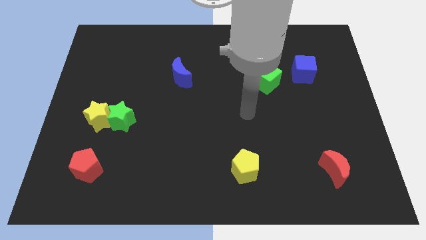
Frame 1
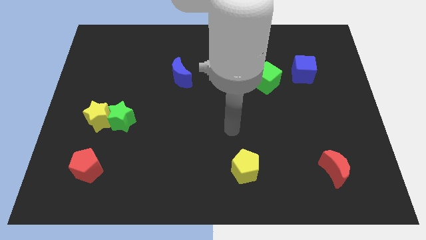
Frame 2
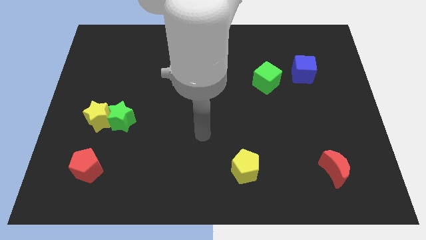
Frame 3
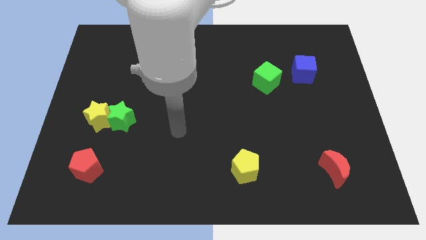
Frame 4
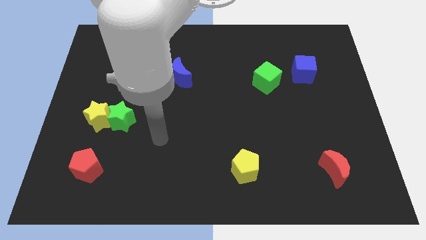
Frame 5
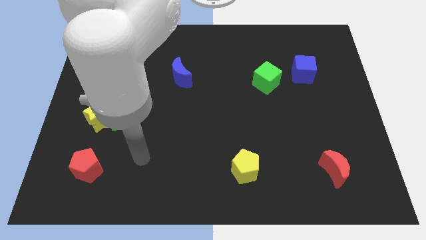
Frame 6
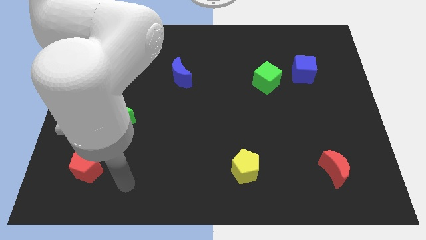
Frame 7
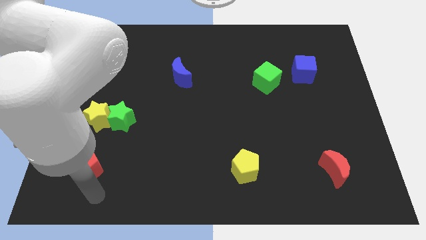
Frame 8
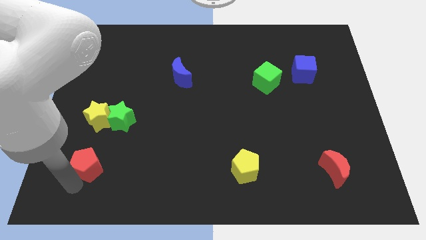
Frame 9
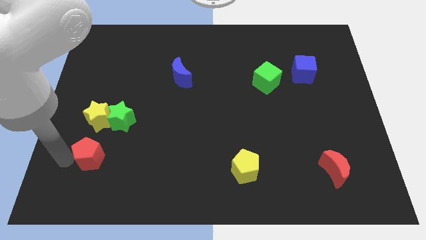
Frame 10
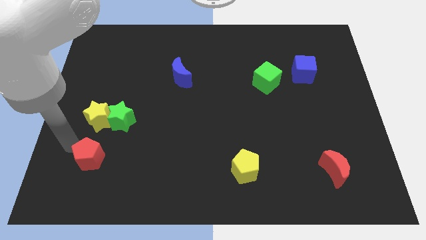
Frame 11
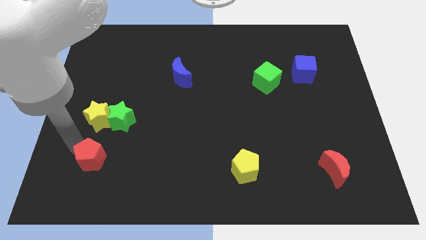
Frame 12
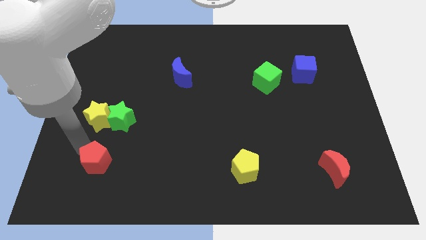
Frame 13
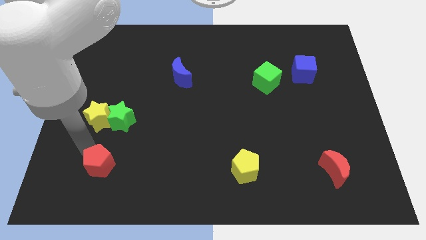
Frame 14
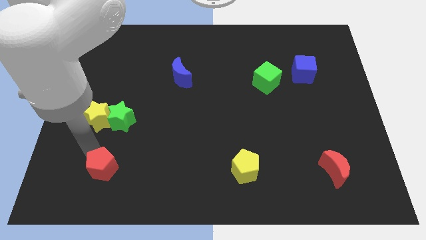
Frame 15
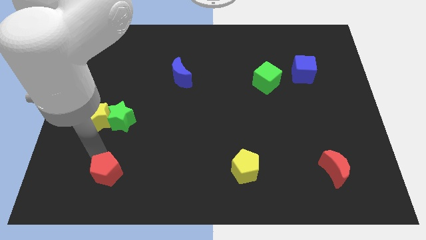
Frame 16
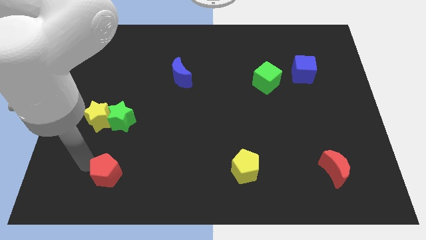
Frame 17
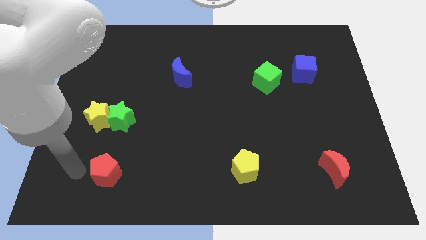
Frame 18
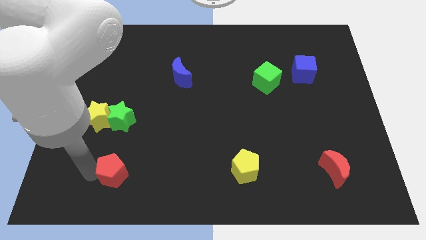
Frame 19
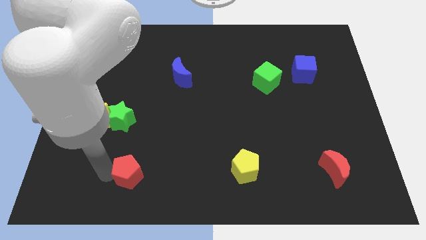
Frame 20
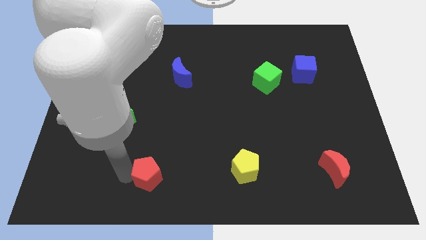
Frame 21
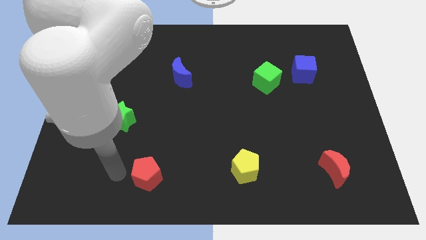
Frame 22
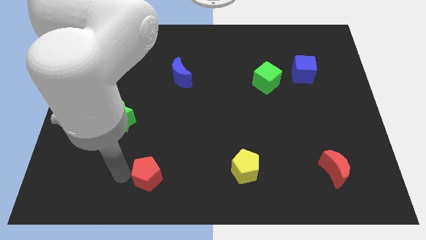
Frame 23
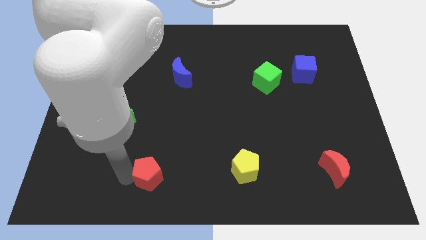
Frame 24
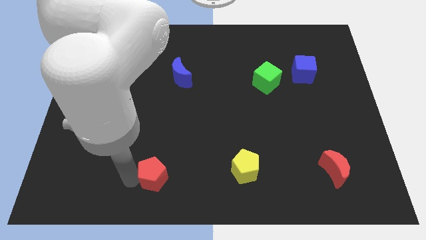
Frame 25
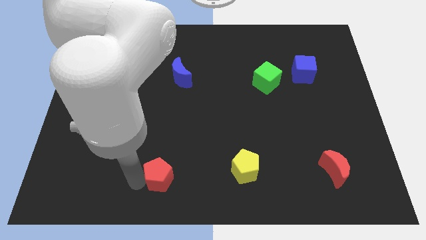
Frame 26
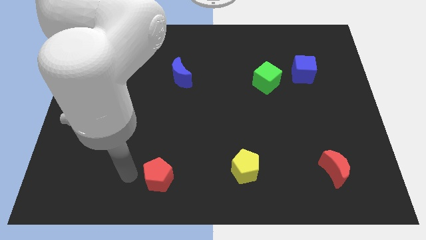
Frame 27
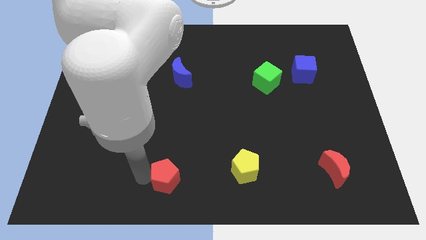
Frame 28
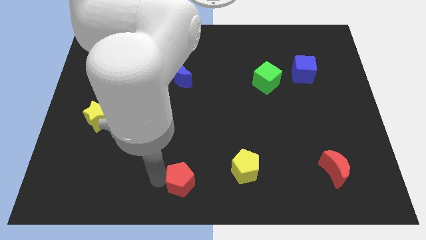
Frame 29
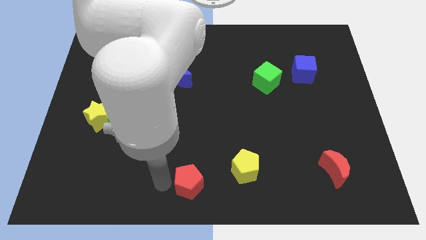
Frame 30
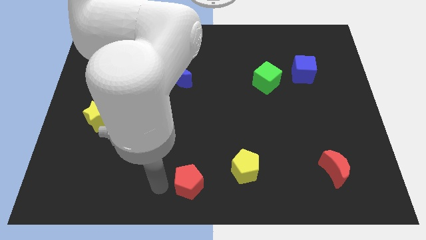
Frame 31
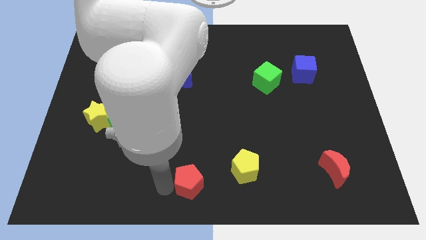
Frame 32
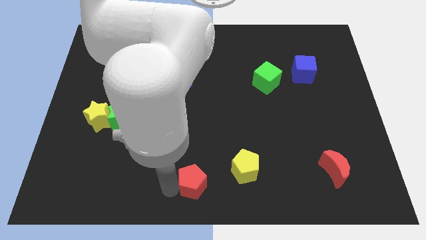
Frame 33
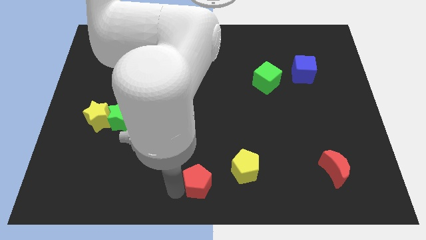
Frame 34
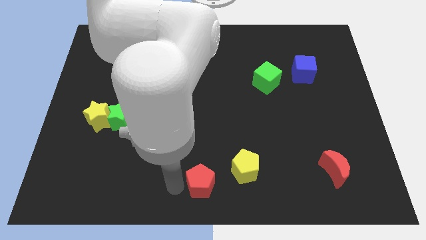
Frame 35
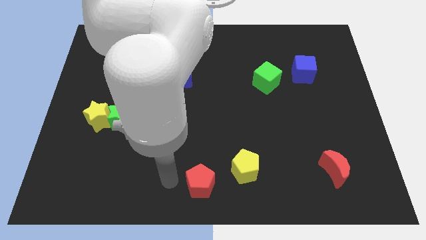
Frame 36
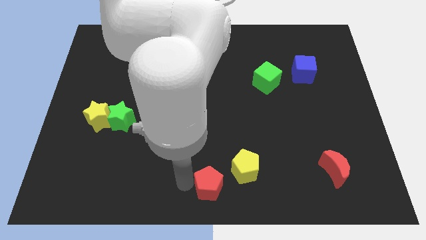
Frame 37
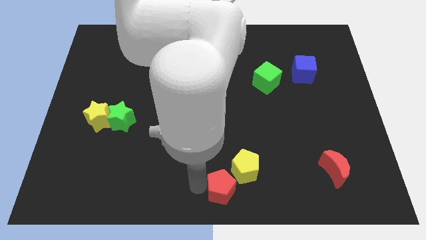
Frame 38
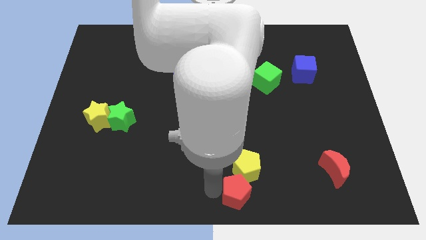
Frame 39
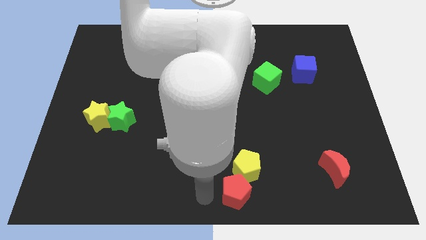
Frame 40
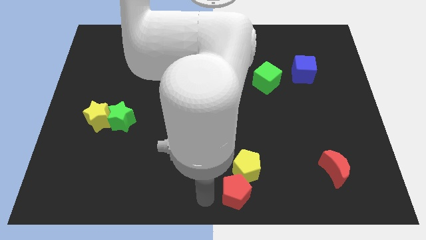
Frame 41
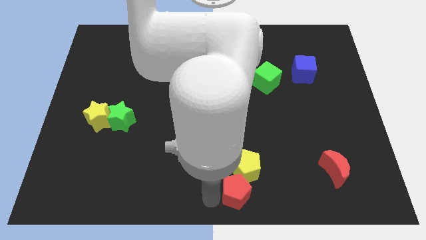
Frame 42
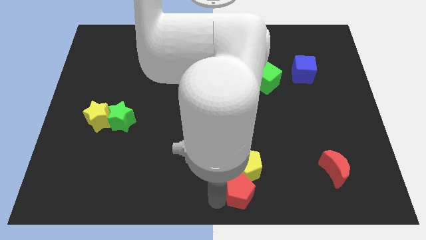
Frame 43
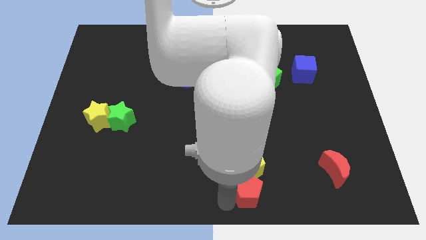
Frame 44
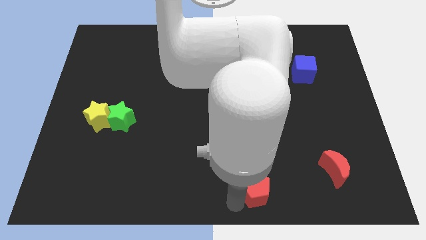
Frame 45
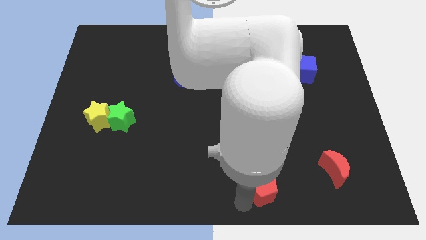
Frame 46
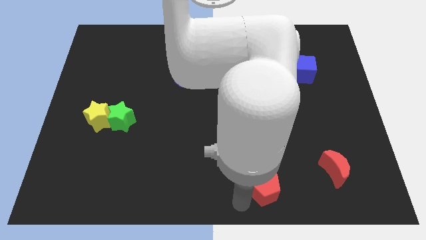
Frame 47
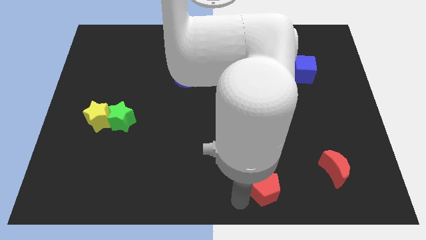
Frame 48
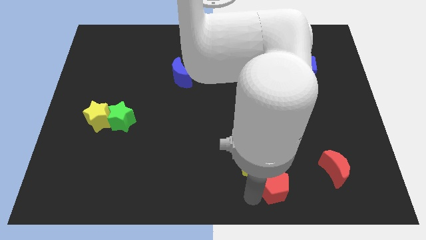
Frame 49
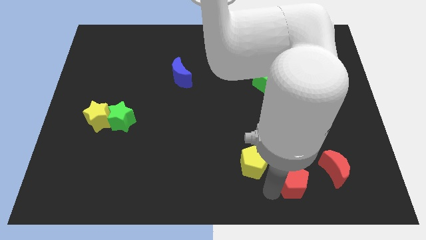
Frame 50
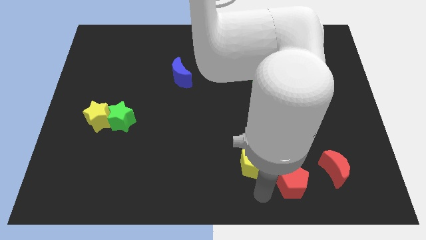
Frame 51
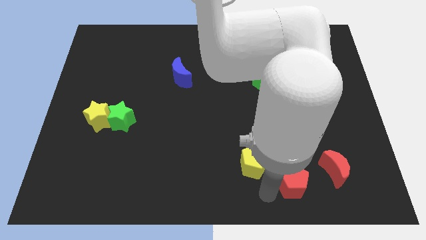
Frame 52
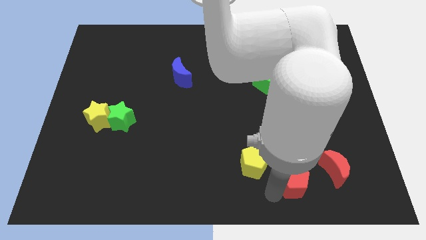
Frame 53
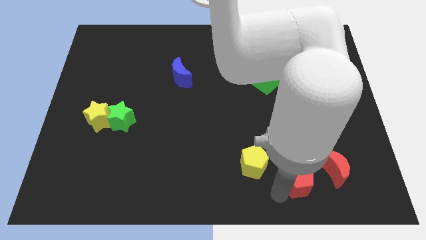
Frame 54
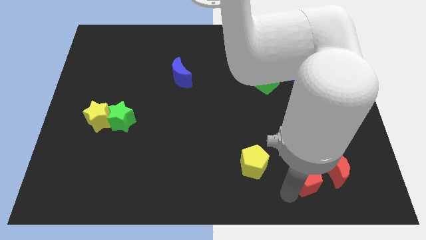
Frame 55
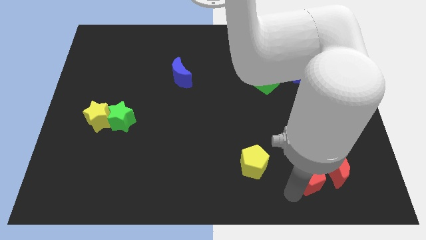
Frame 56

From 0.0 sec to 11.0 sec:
move the red pentagon towards the red moon

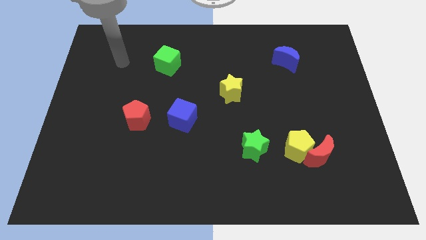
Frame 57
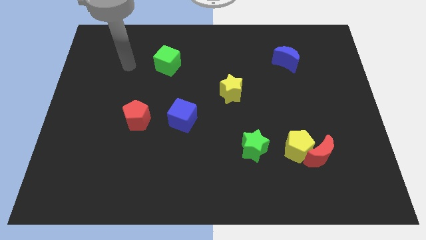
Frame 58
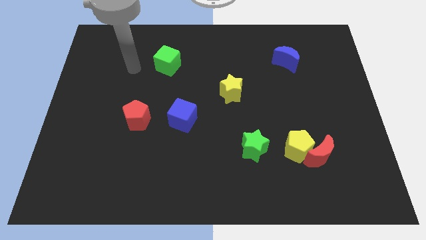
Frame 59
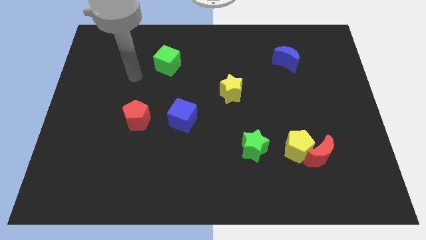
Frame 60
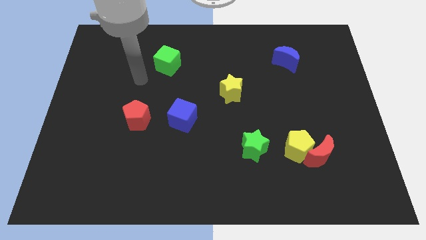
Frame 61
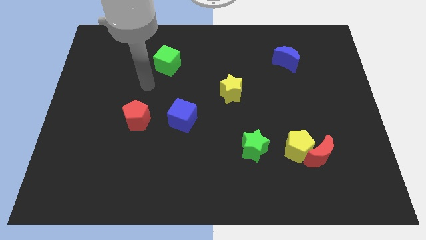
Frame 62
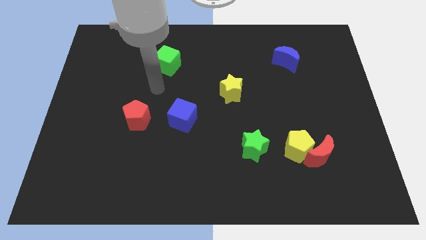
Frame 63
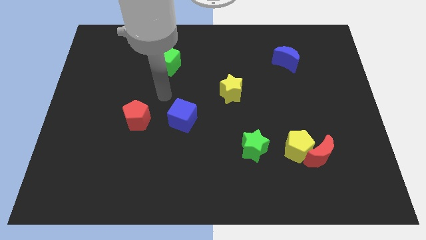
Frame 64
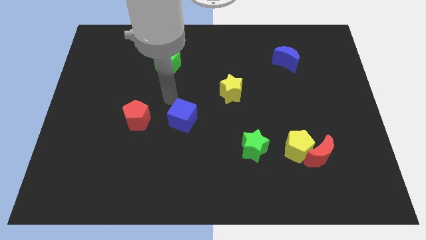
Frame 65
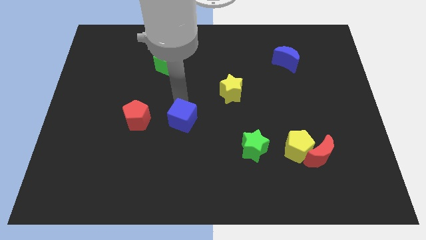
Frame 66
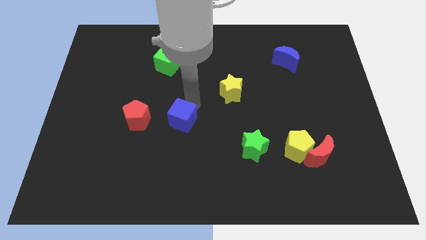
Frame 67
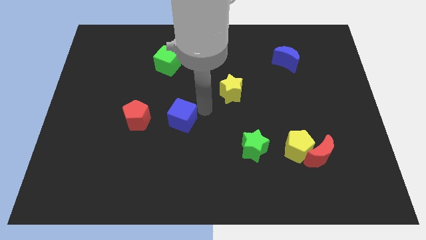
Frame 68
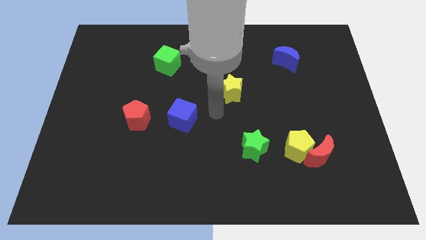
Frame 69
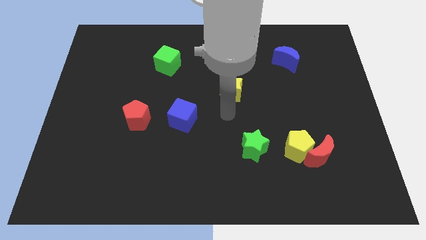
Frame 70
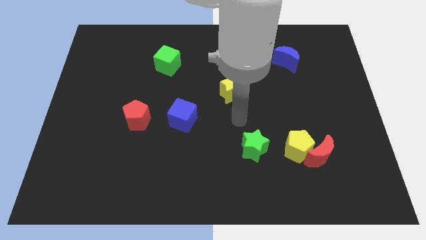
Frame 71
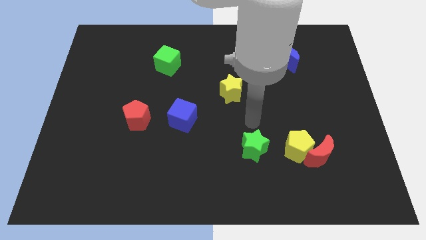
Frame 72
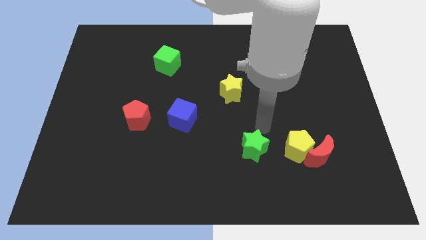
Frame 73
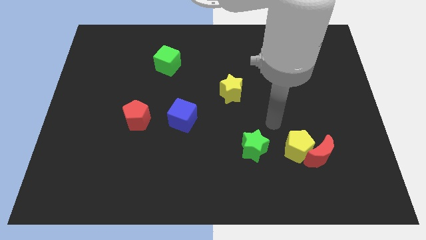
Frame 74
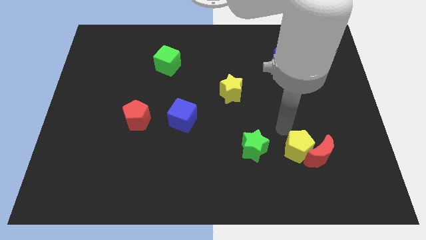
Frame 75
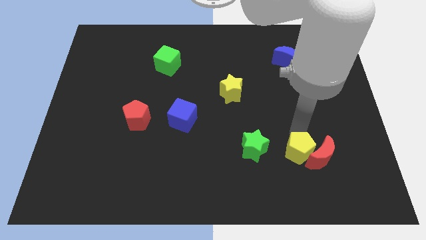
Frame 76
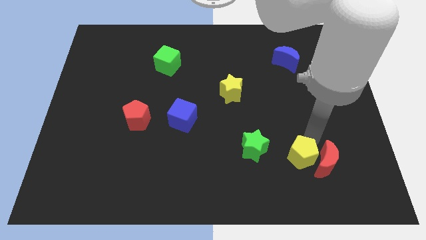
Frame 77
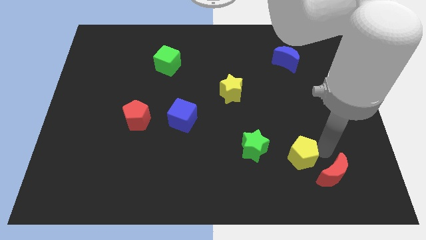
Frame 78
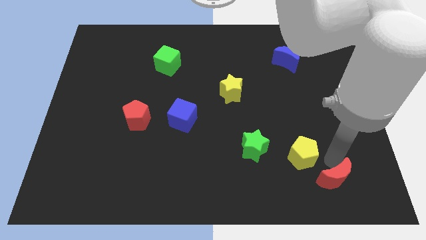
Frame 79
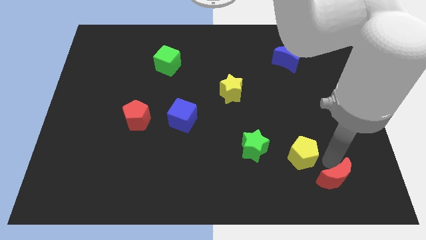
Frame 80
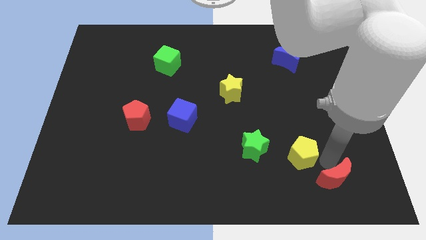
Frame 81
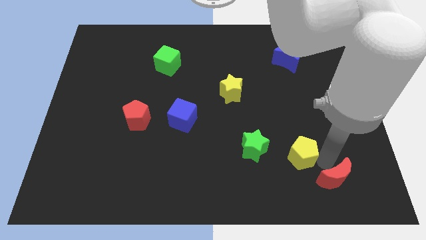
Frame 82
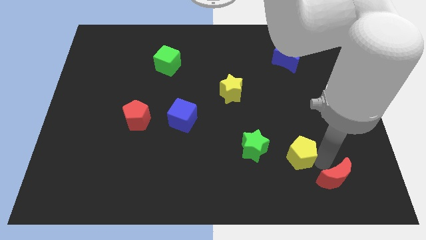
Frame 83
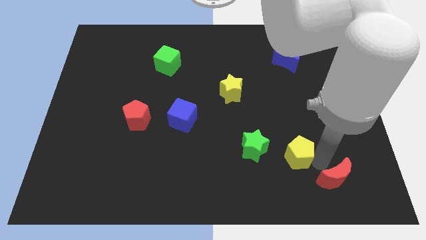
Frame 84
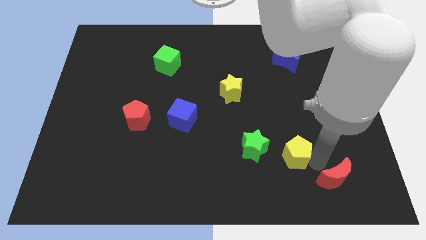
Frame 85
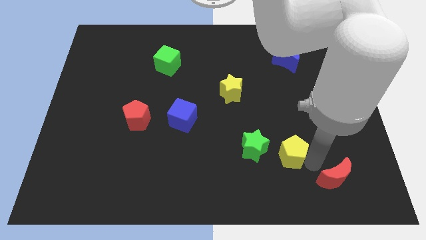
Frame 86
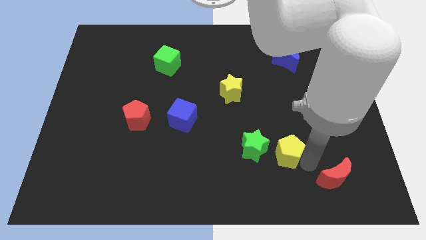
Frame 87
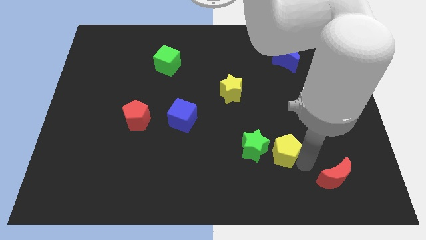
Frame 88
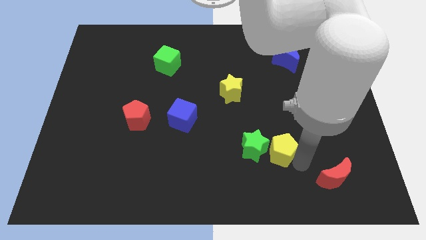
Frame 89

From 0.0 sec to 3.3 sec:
move the yellow pentagon next to the green star
